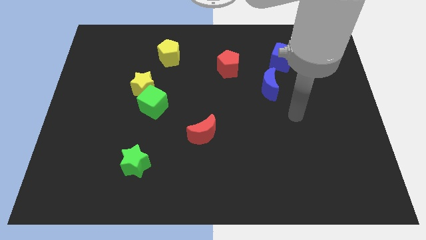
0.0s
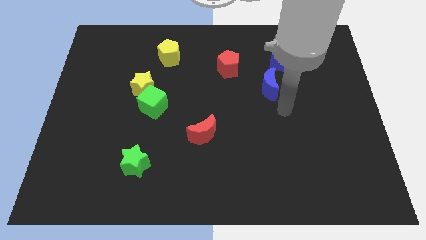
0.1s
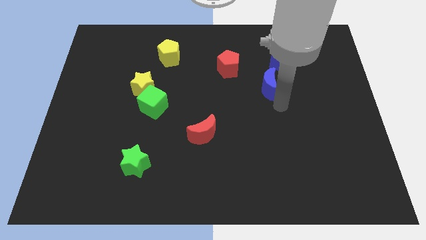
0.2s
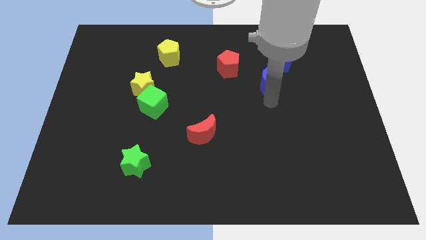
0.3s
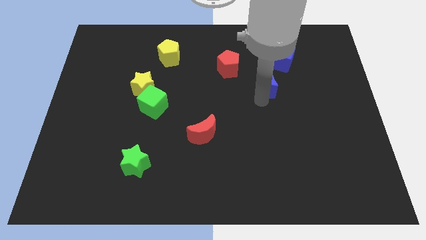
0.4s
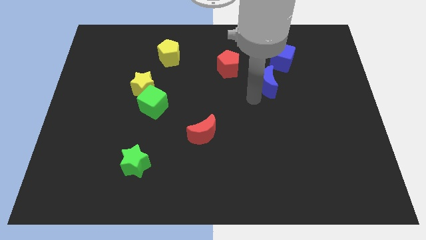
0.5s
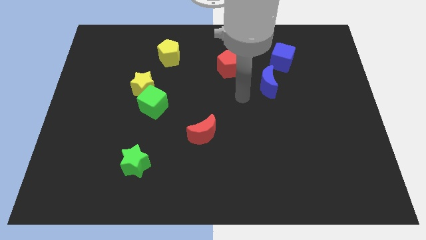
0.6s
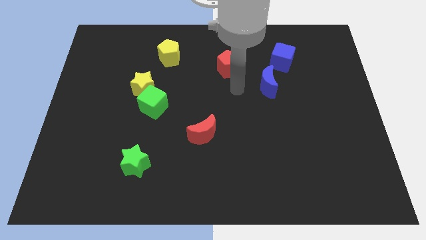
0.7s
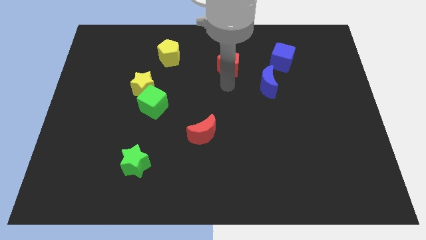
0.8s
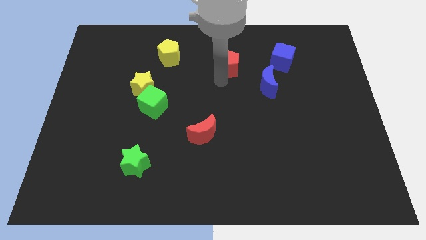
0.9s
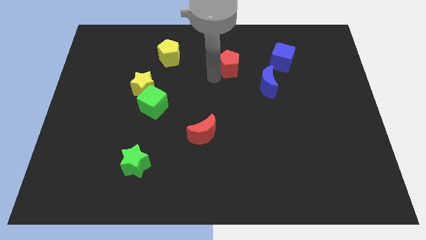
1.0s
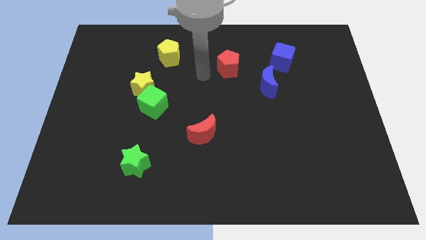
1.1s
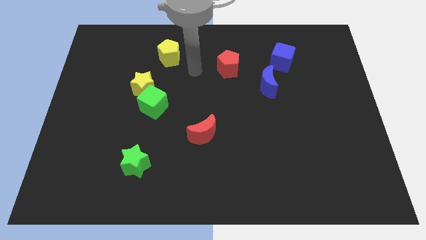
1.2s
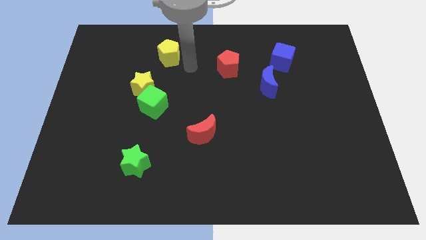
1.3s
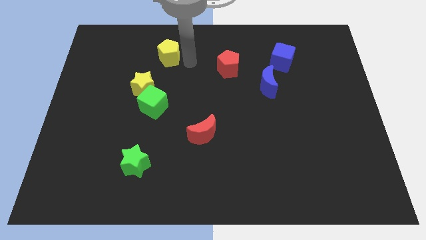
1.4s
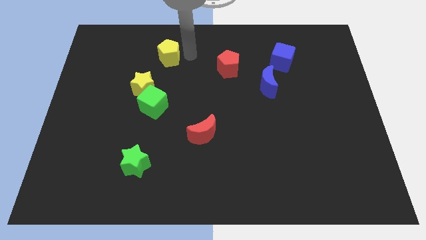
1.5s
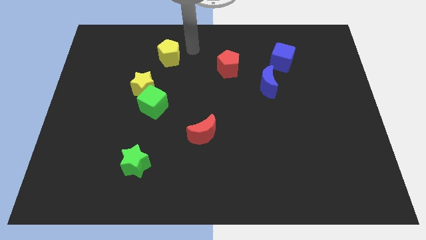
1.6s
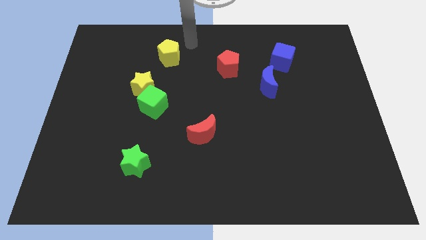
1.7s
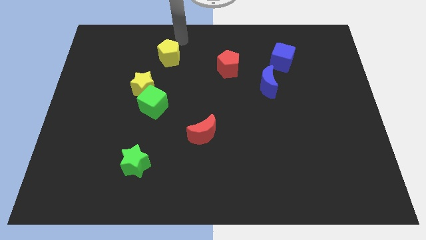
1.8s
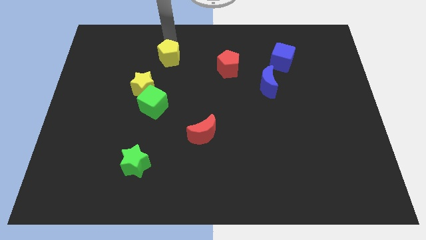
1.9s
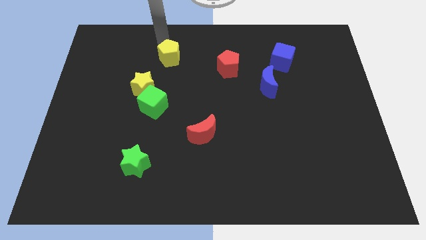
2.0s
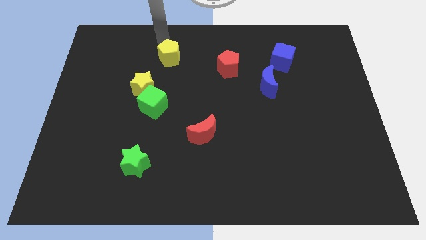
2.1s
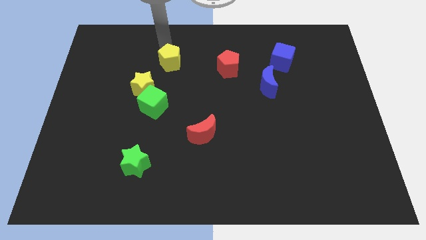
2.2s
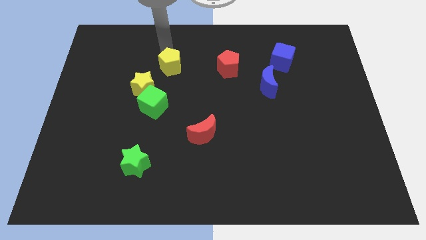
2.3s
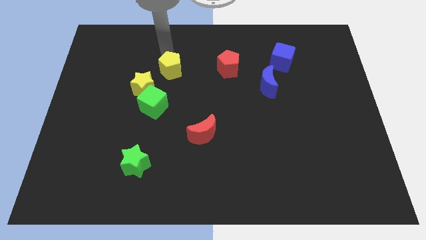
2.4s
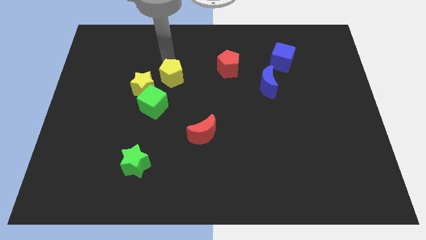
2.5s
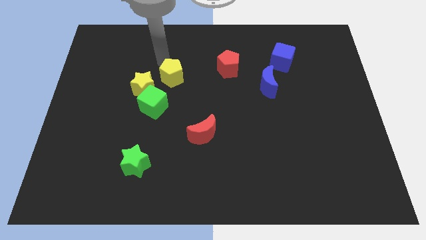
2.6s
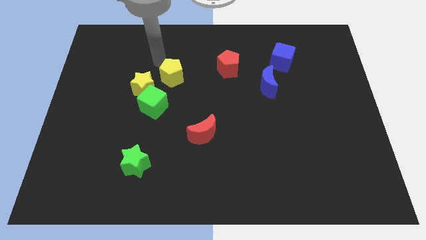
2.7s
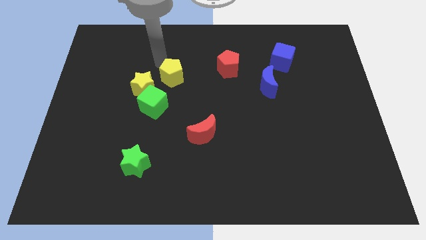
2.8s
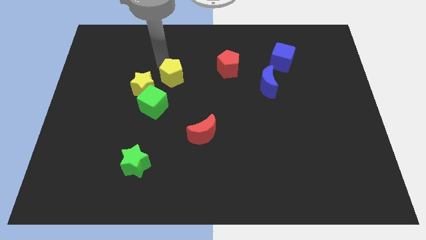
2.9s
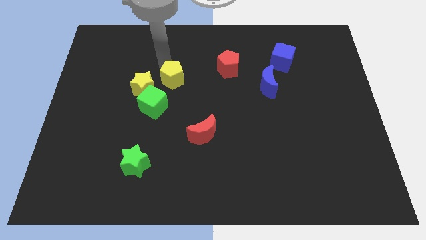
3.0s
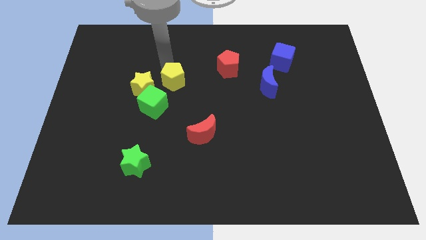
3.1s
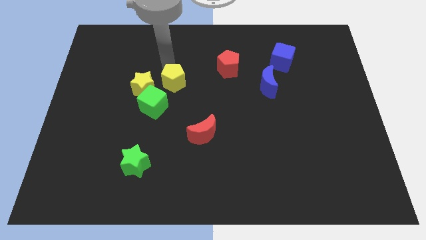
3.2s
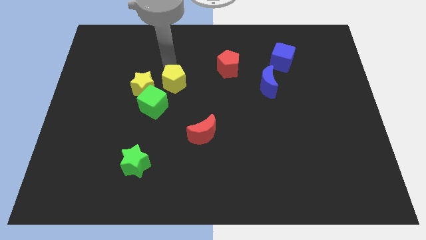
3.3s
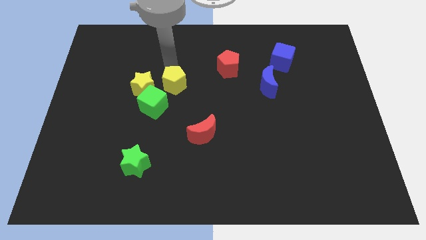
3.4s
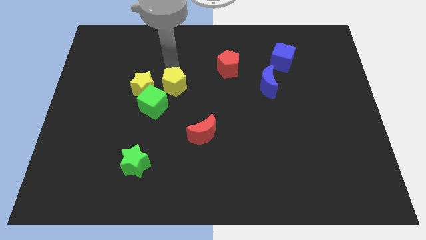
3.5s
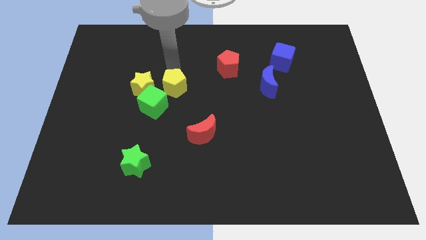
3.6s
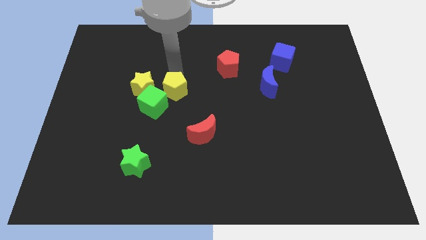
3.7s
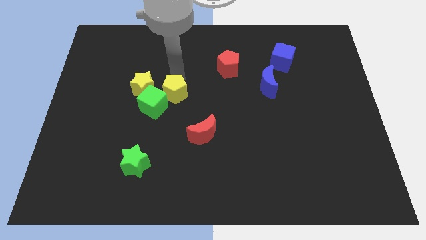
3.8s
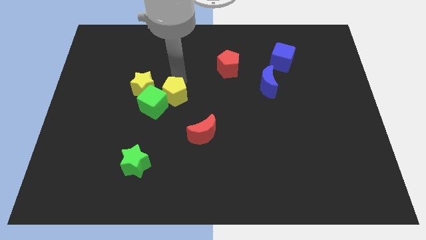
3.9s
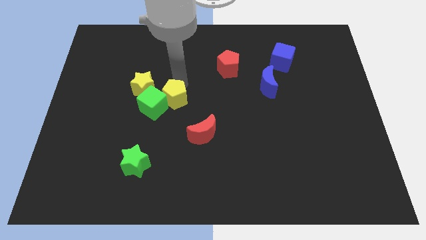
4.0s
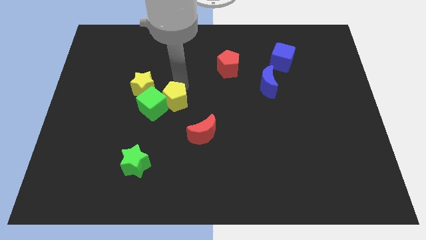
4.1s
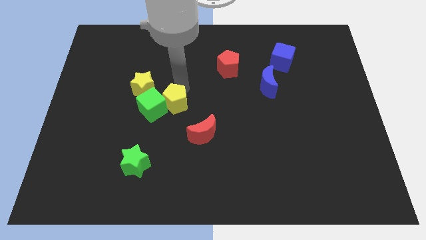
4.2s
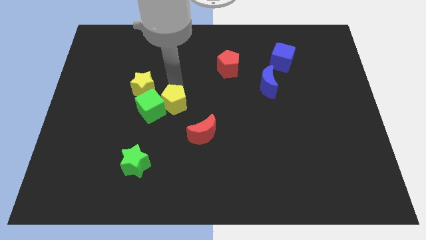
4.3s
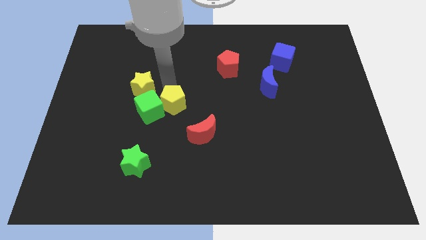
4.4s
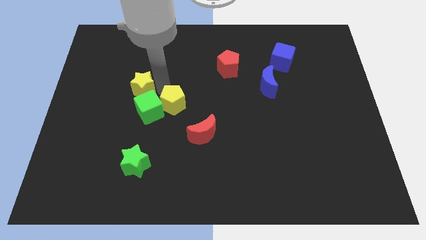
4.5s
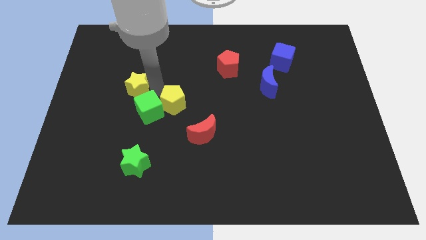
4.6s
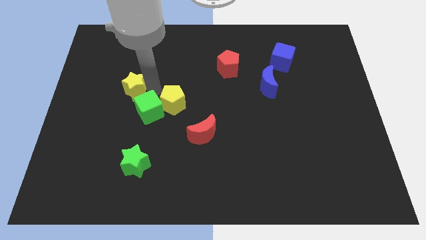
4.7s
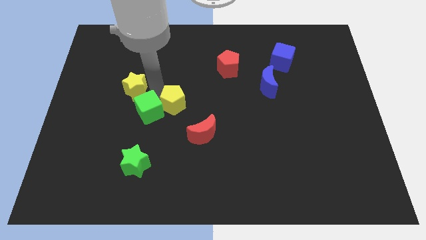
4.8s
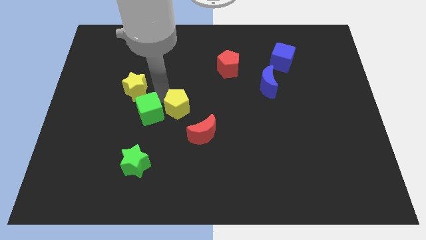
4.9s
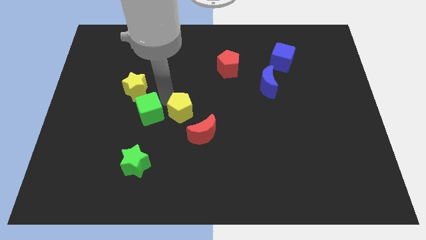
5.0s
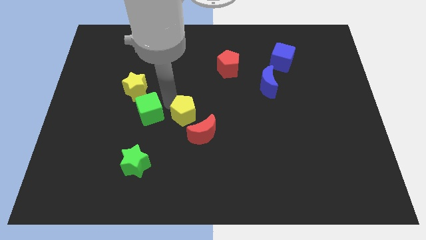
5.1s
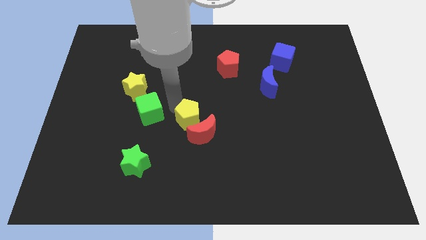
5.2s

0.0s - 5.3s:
put the yellow pentagon next to the red moon

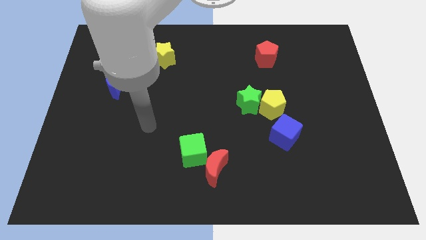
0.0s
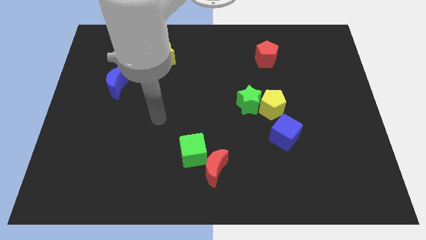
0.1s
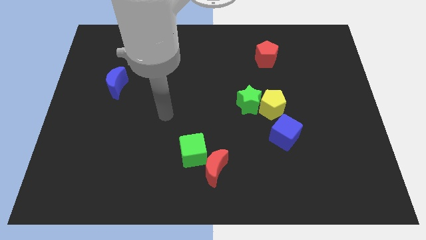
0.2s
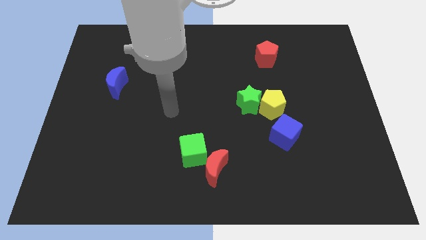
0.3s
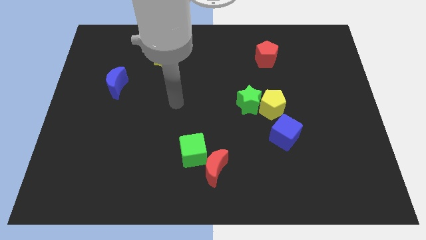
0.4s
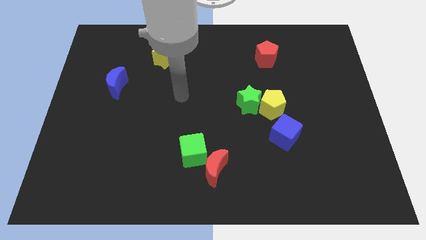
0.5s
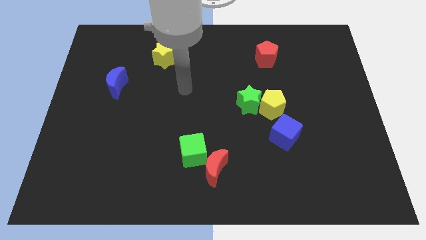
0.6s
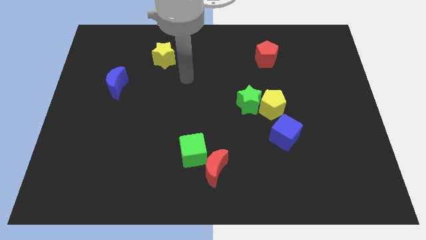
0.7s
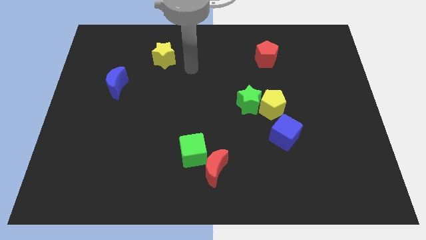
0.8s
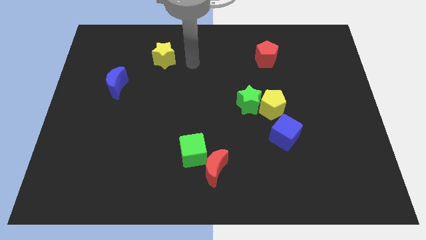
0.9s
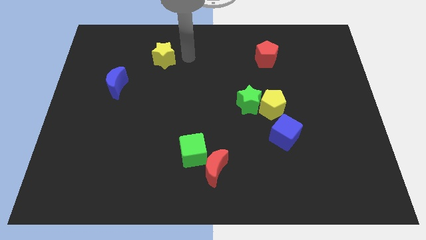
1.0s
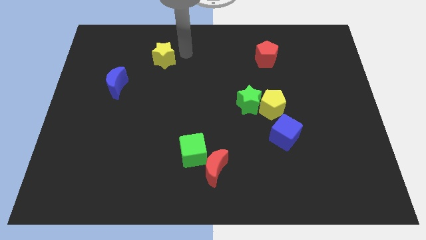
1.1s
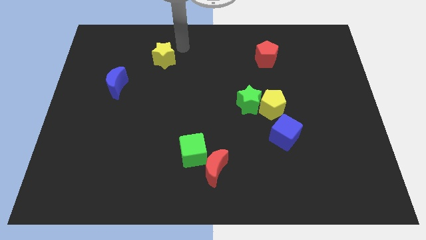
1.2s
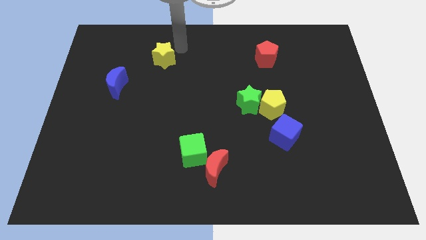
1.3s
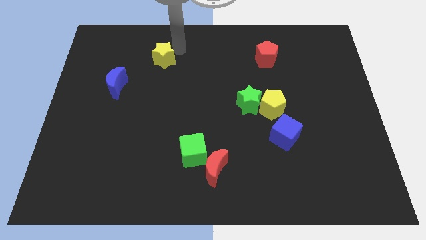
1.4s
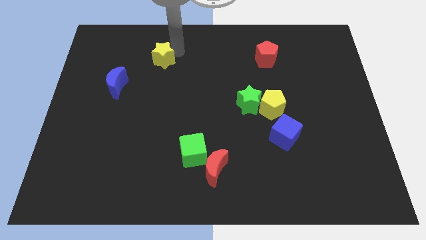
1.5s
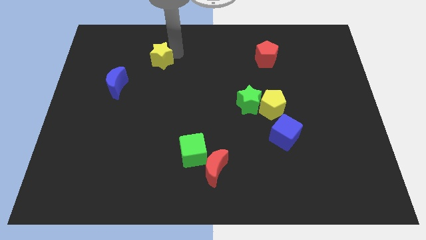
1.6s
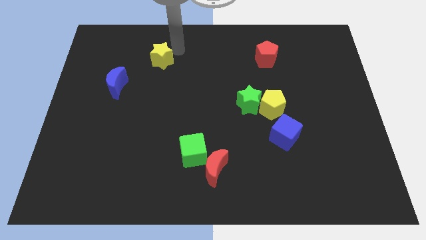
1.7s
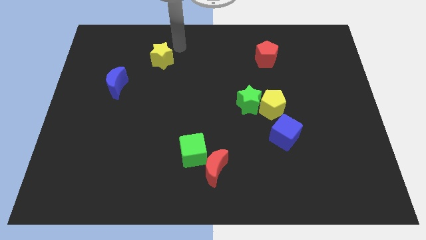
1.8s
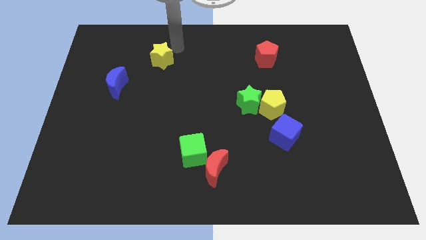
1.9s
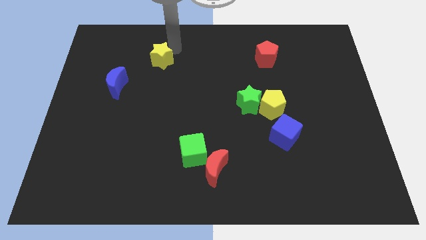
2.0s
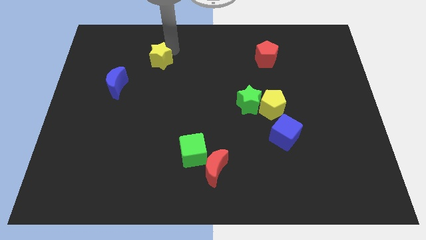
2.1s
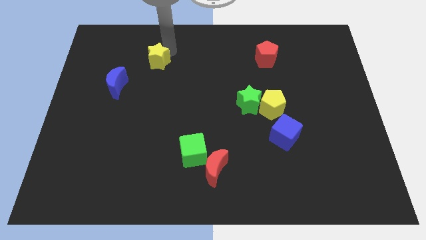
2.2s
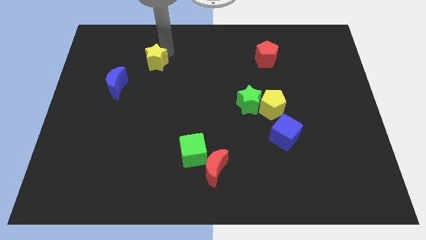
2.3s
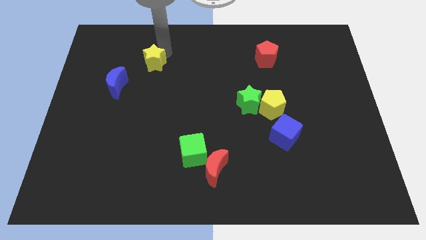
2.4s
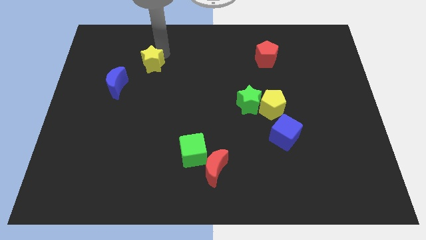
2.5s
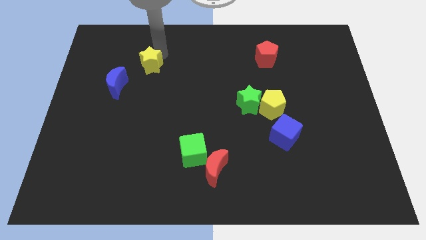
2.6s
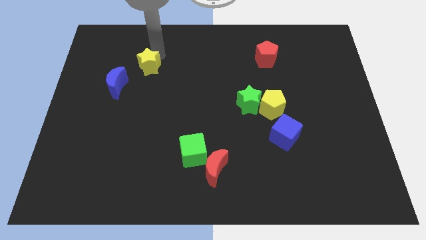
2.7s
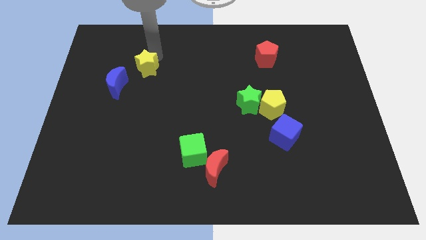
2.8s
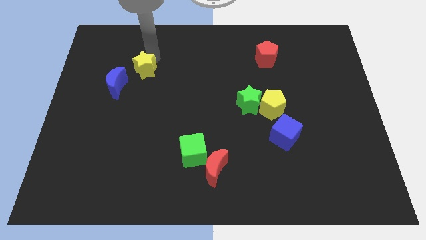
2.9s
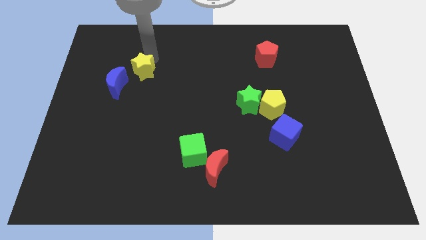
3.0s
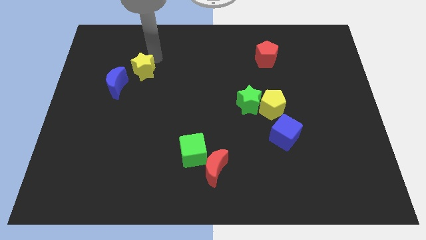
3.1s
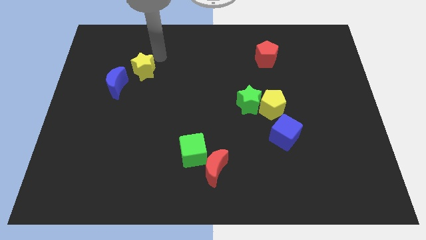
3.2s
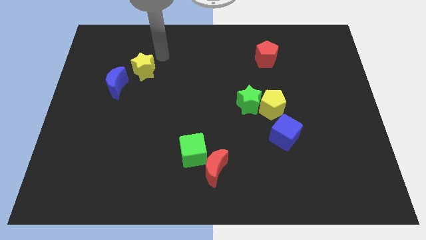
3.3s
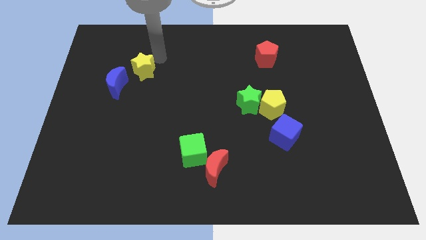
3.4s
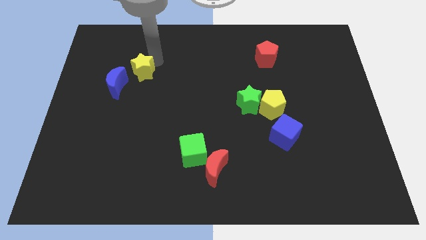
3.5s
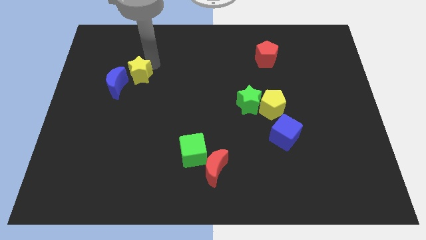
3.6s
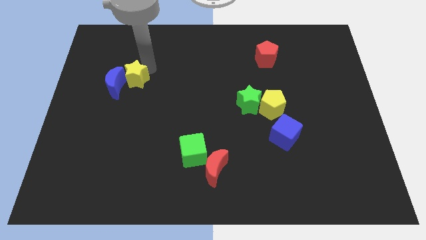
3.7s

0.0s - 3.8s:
put the yellow star towards the blue moon
